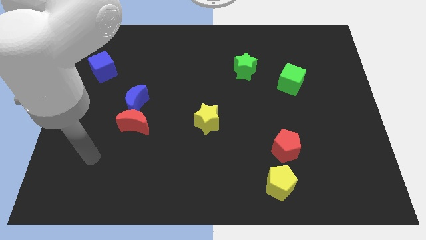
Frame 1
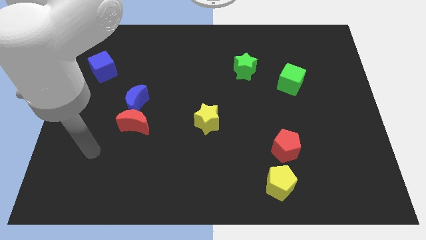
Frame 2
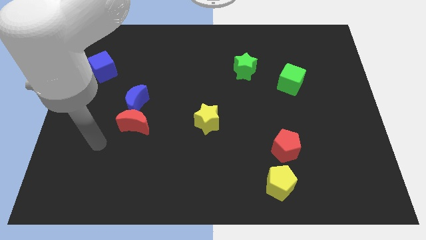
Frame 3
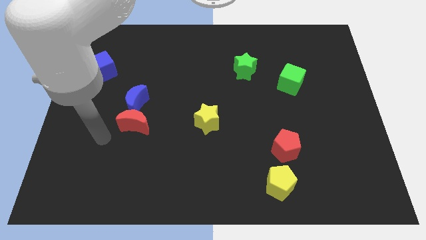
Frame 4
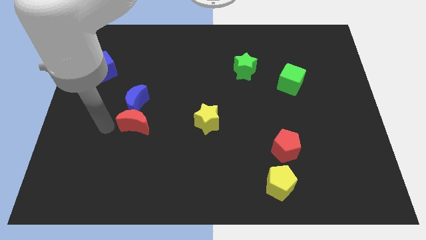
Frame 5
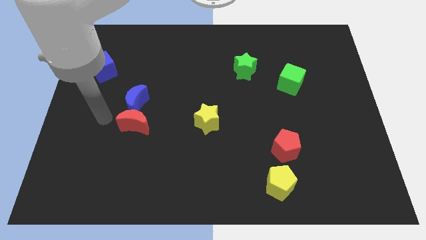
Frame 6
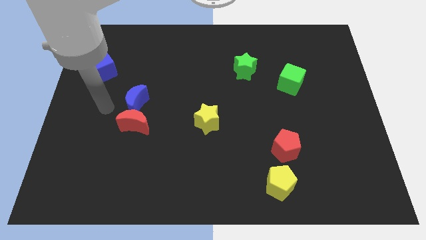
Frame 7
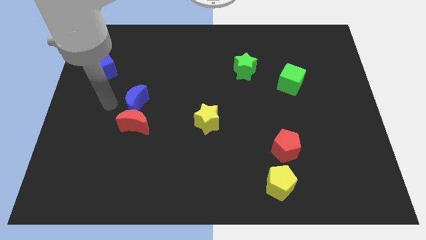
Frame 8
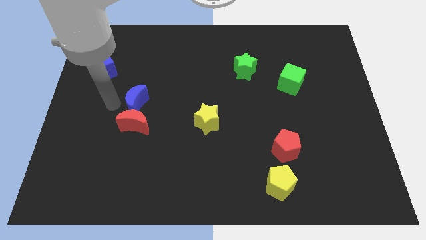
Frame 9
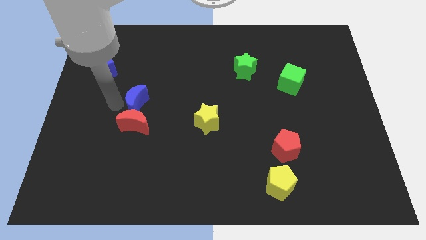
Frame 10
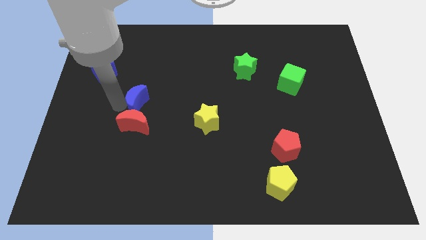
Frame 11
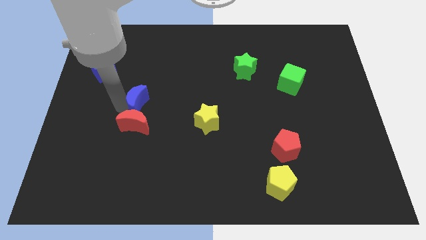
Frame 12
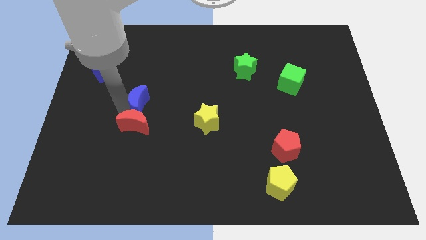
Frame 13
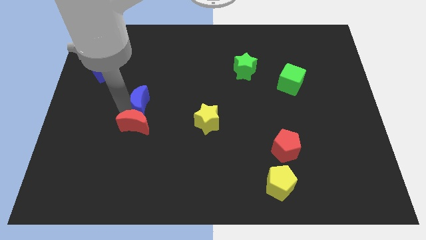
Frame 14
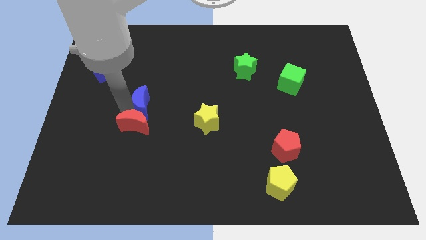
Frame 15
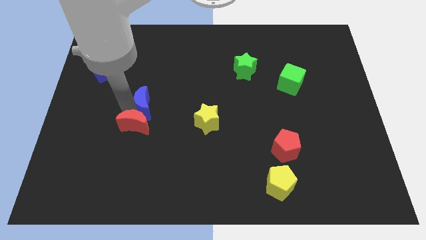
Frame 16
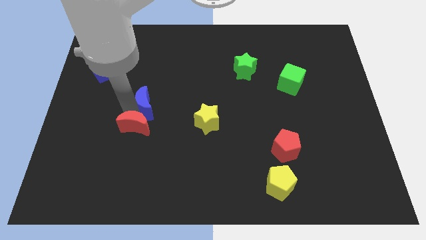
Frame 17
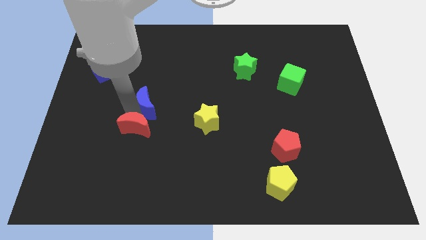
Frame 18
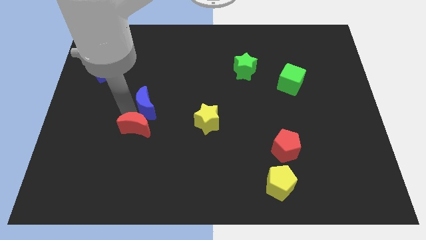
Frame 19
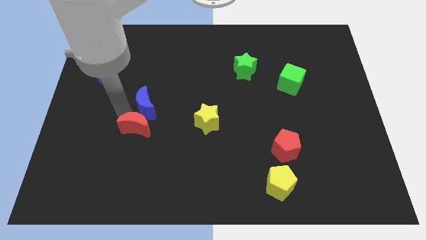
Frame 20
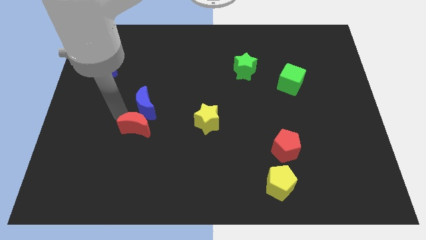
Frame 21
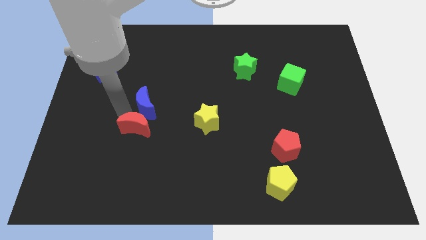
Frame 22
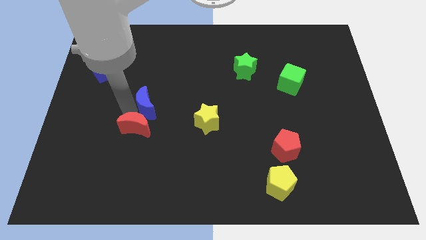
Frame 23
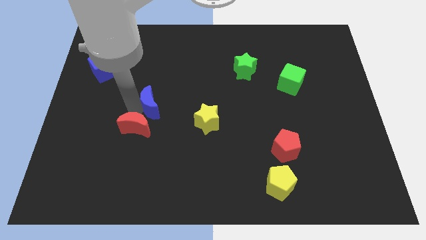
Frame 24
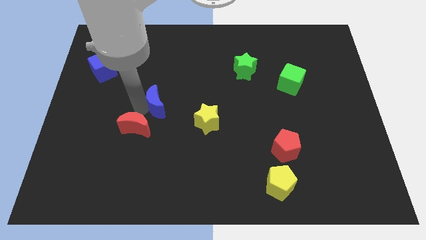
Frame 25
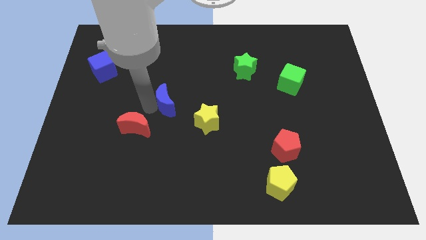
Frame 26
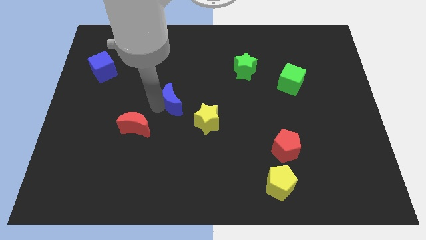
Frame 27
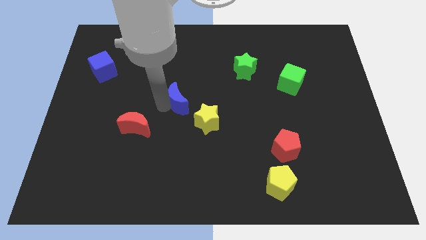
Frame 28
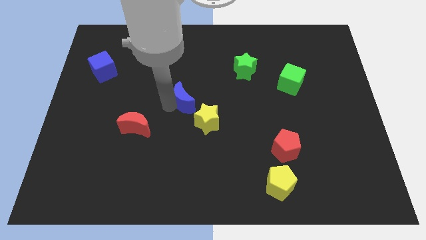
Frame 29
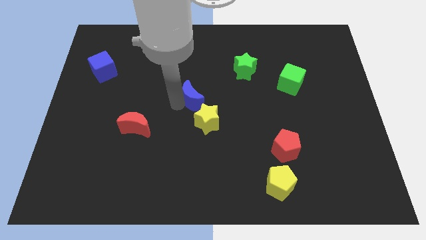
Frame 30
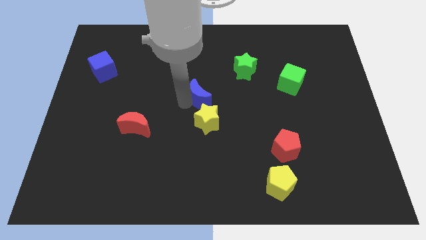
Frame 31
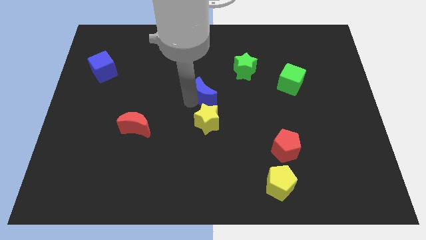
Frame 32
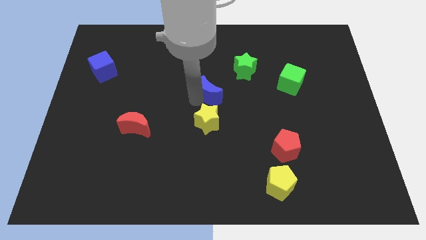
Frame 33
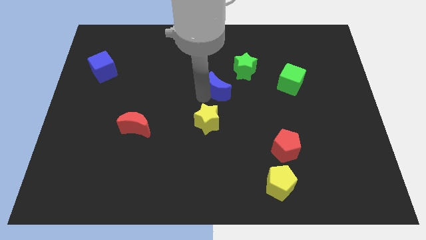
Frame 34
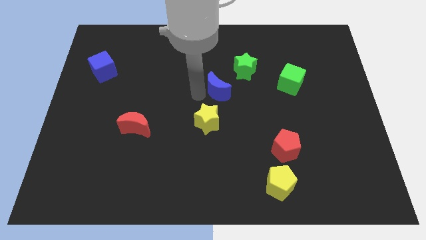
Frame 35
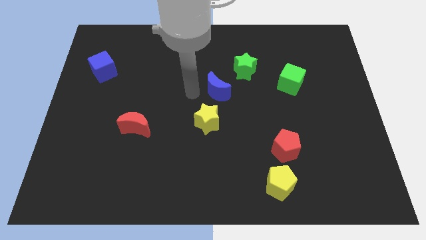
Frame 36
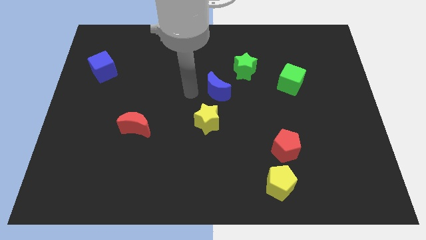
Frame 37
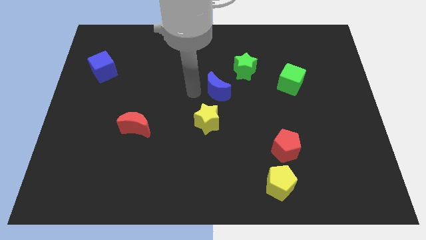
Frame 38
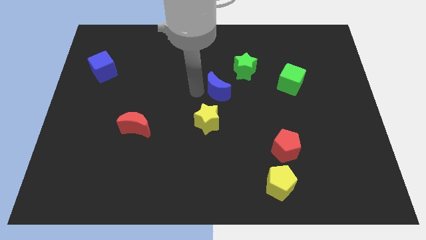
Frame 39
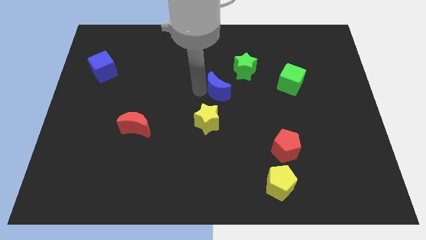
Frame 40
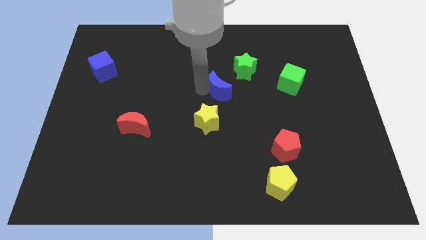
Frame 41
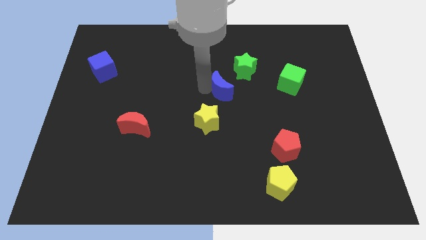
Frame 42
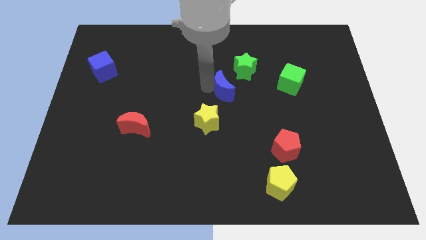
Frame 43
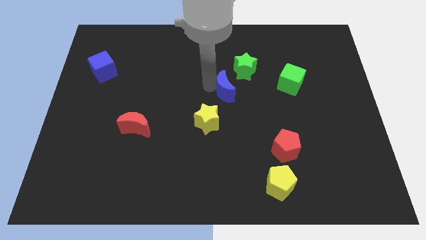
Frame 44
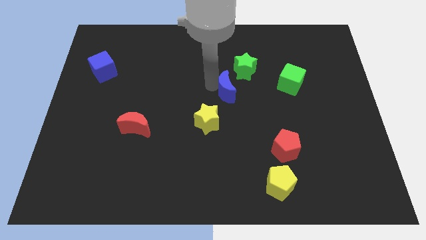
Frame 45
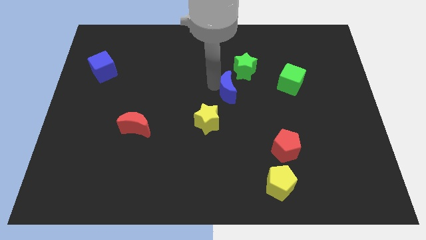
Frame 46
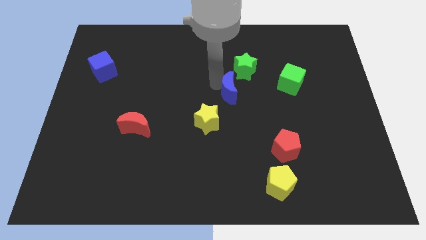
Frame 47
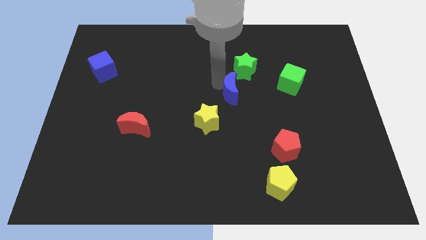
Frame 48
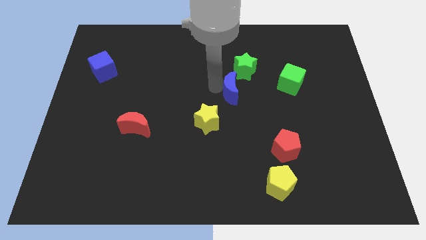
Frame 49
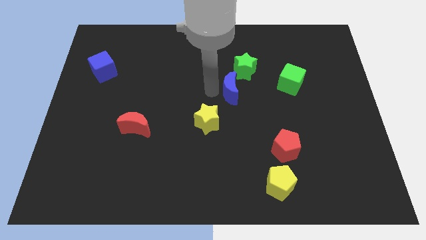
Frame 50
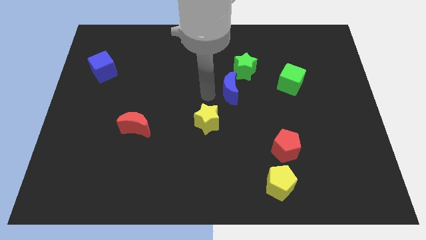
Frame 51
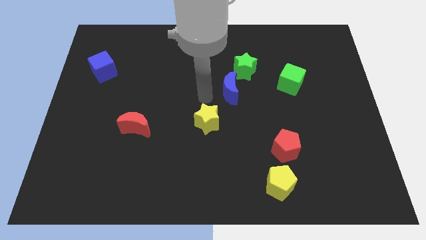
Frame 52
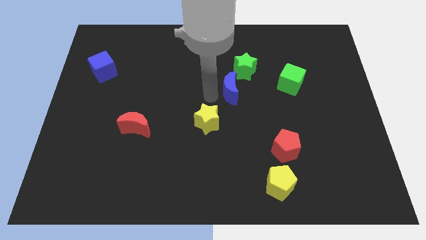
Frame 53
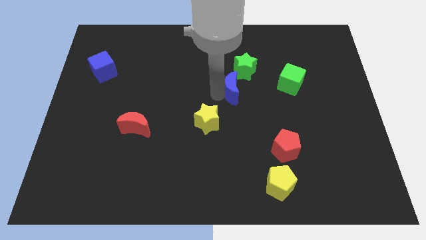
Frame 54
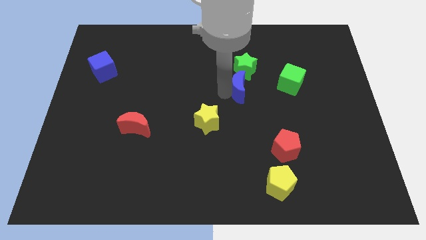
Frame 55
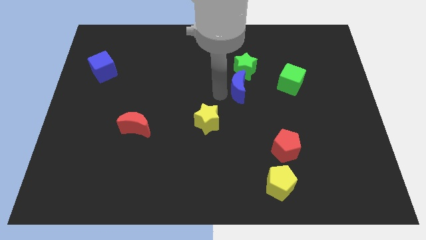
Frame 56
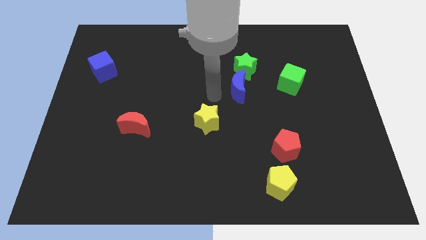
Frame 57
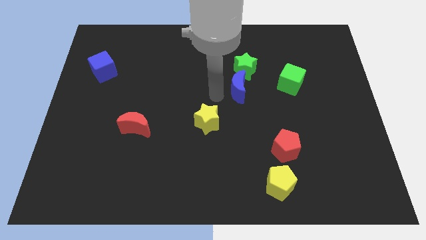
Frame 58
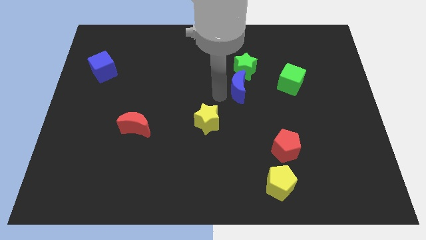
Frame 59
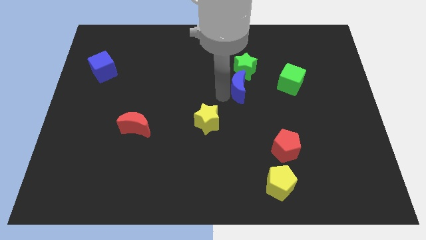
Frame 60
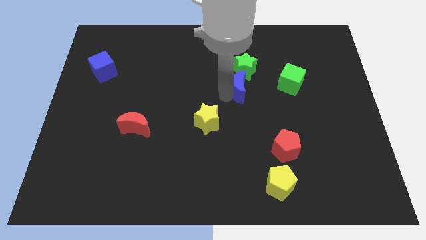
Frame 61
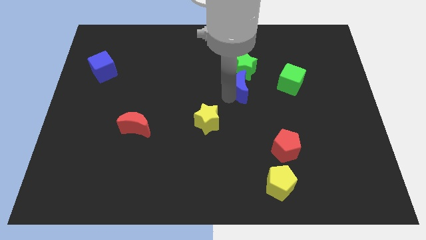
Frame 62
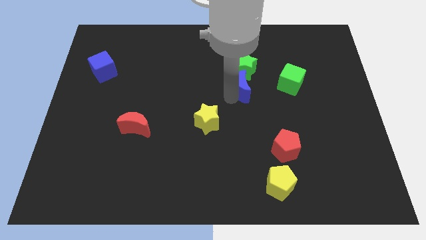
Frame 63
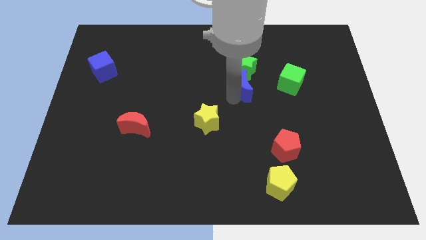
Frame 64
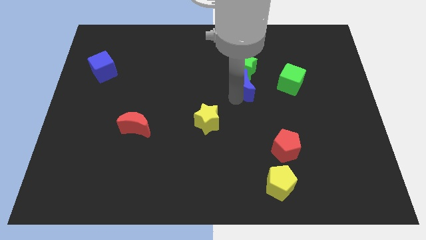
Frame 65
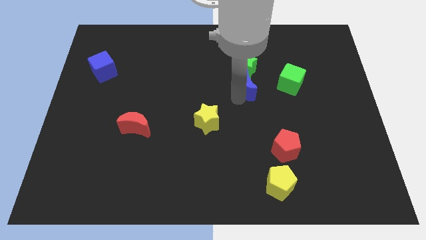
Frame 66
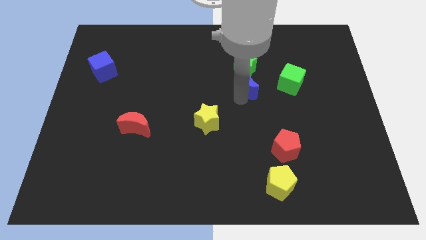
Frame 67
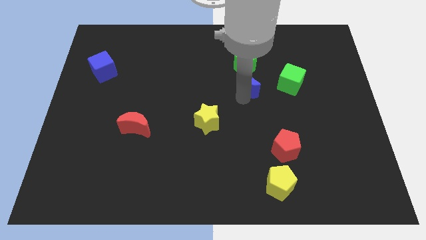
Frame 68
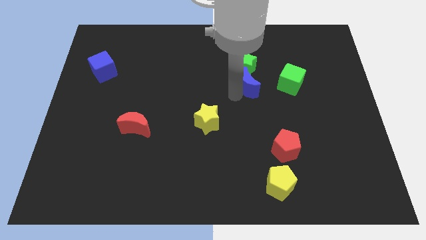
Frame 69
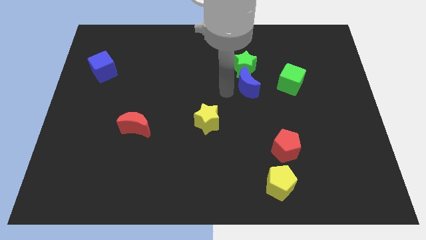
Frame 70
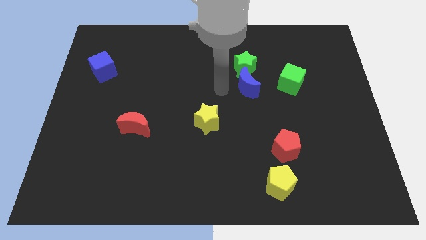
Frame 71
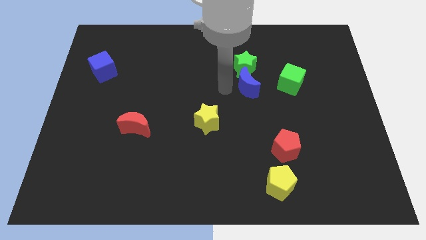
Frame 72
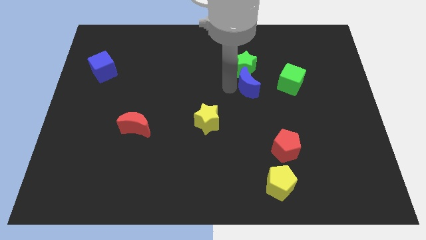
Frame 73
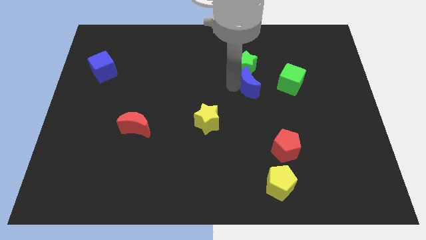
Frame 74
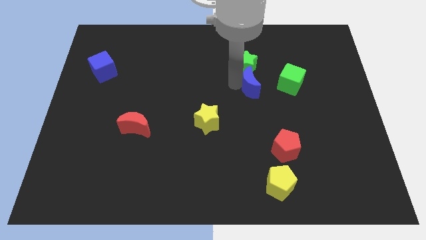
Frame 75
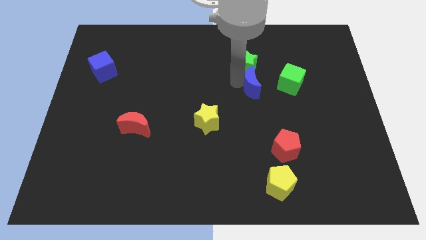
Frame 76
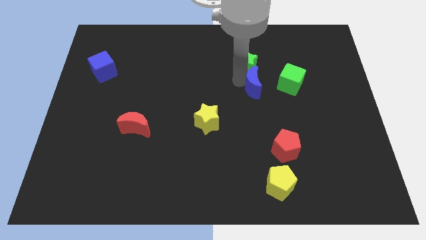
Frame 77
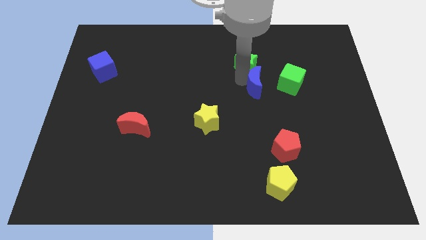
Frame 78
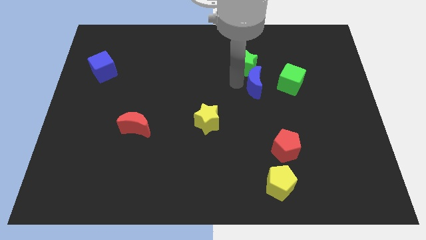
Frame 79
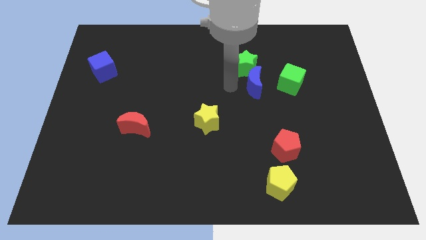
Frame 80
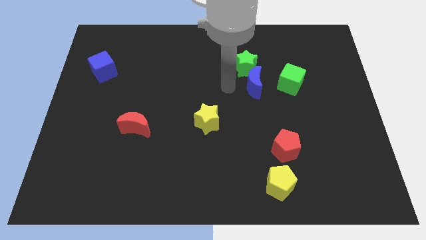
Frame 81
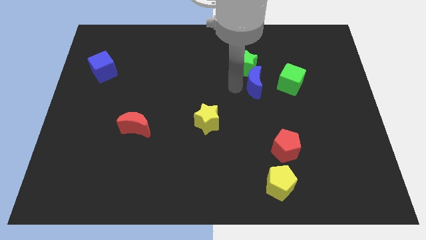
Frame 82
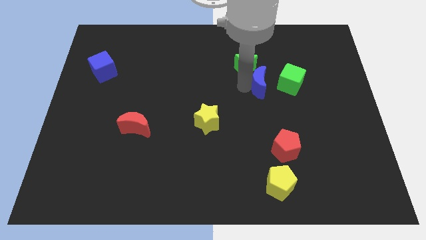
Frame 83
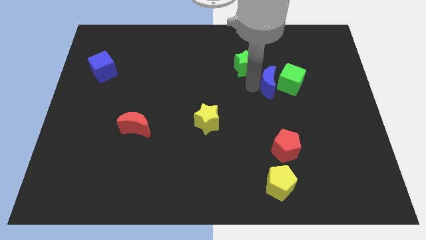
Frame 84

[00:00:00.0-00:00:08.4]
push the blue moon next to the green cube

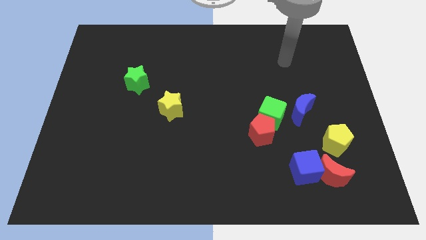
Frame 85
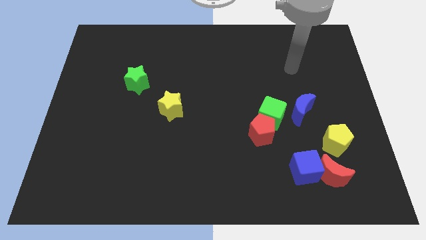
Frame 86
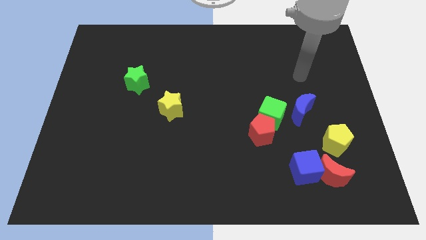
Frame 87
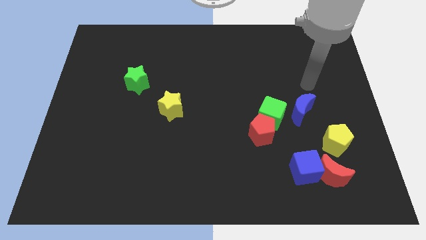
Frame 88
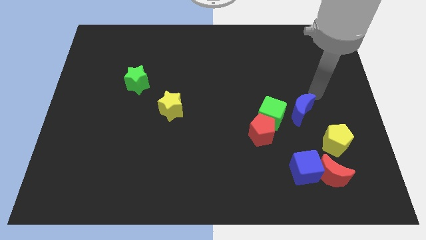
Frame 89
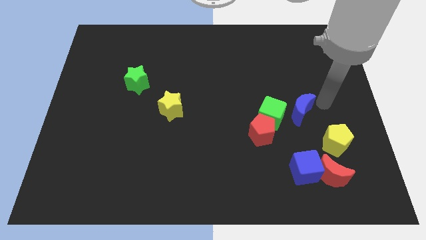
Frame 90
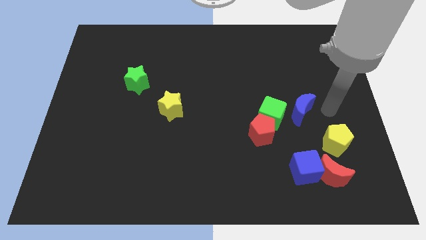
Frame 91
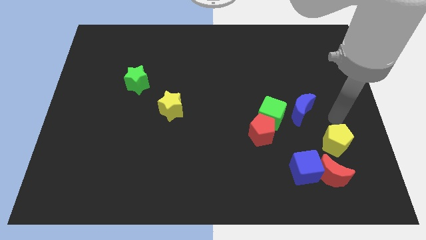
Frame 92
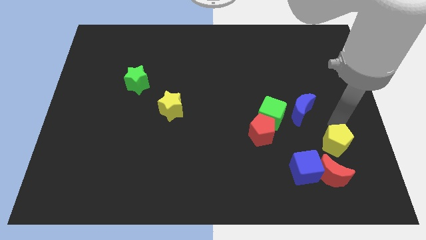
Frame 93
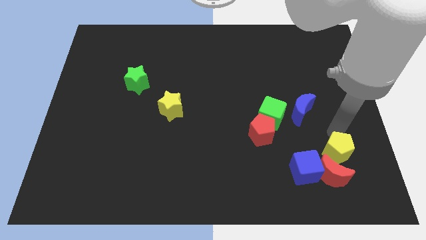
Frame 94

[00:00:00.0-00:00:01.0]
push the yellow pentagon next to the red moon
